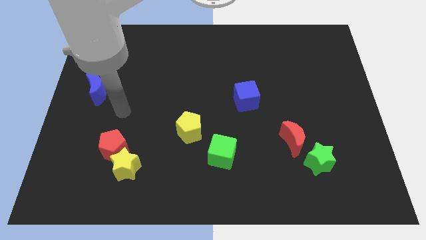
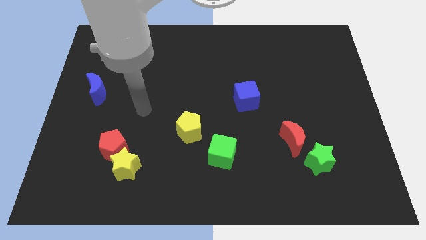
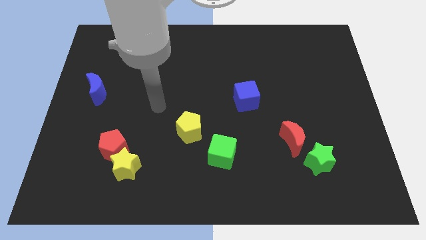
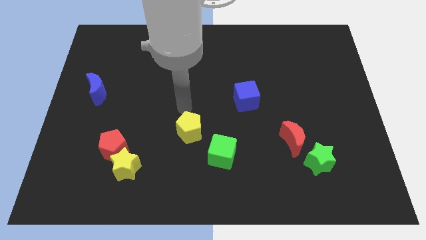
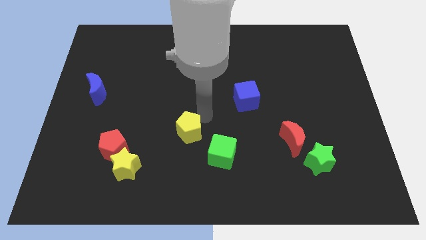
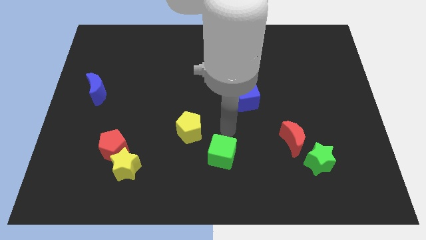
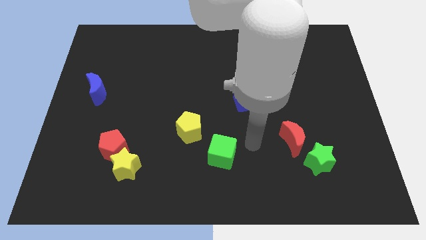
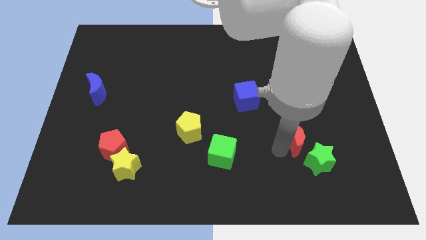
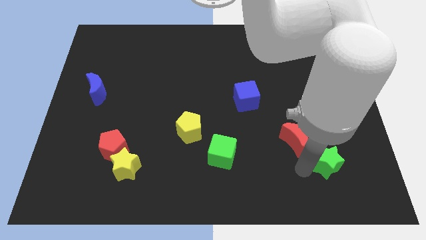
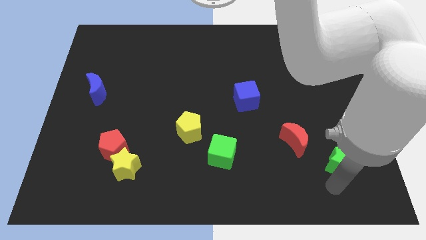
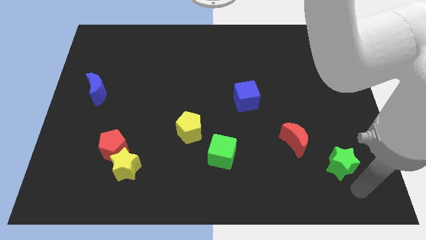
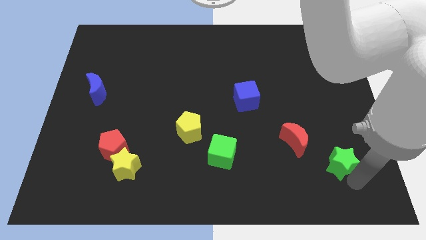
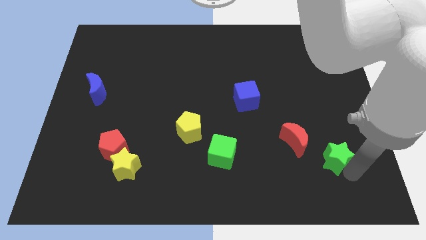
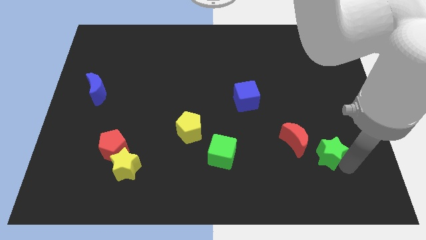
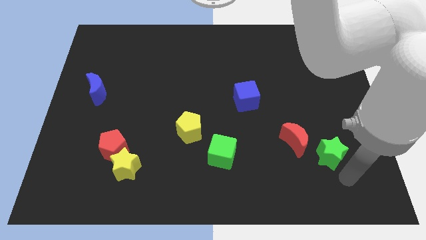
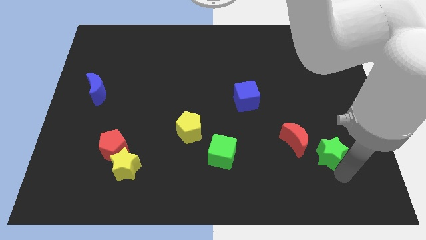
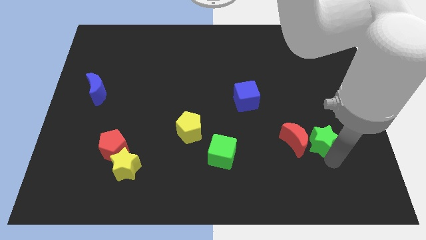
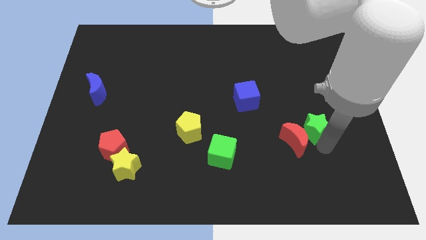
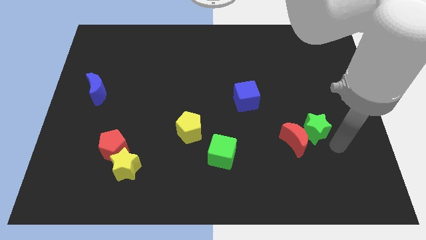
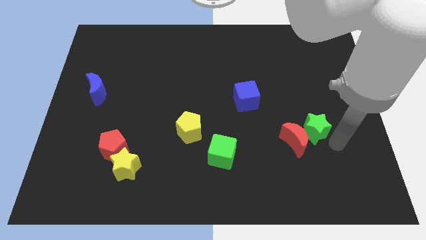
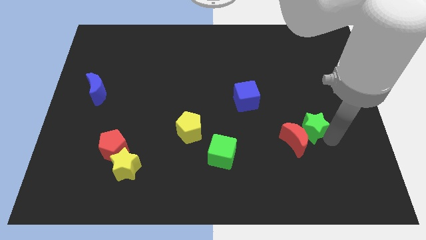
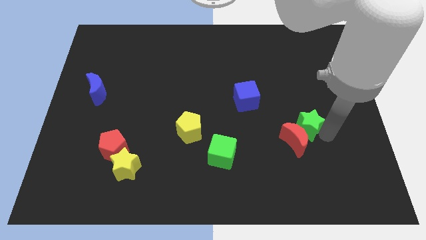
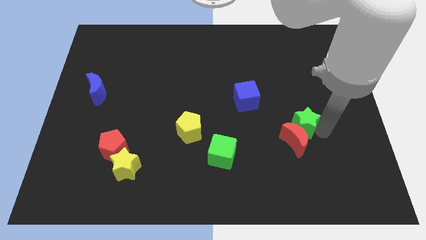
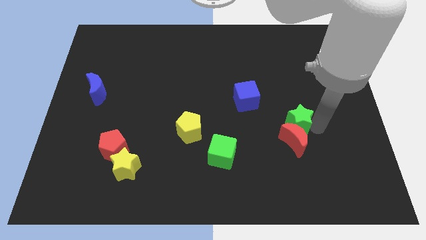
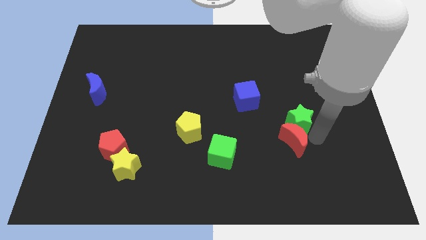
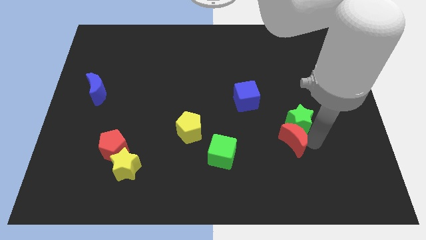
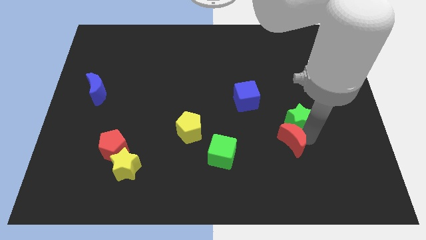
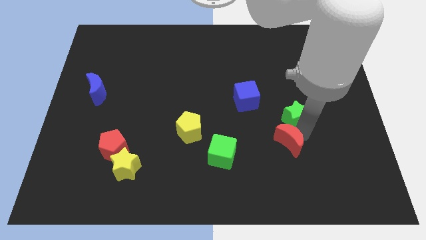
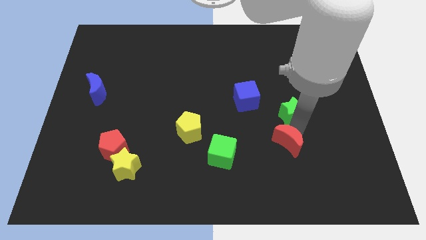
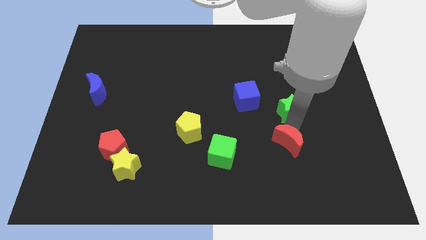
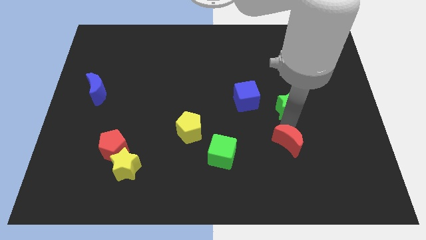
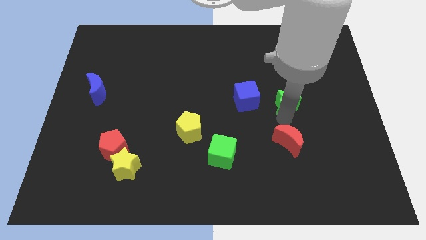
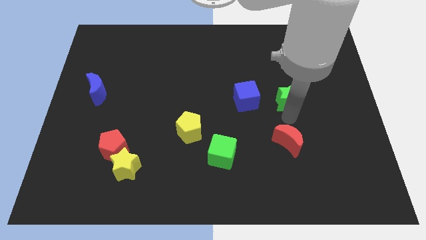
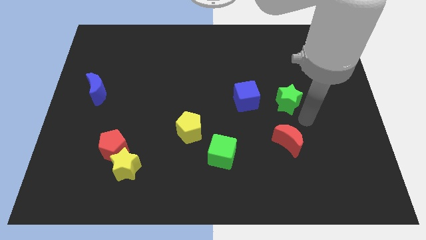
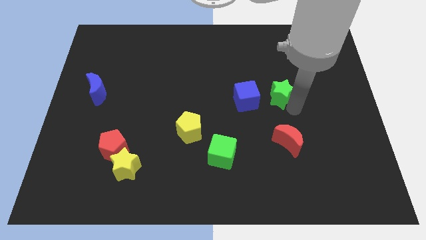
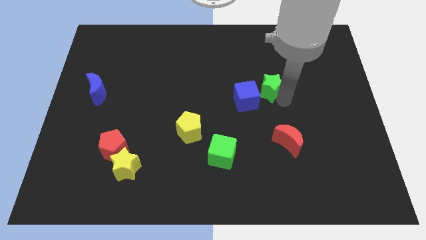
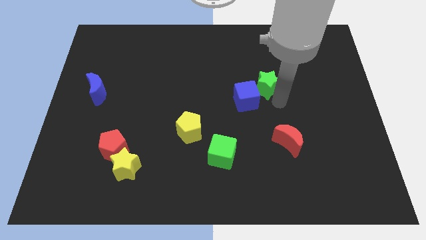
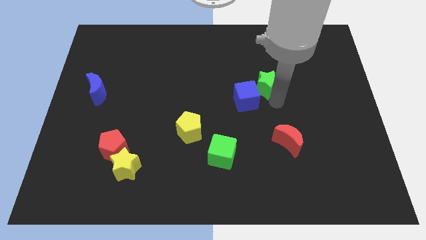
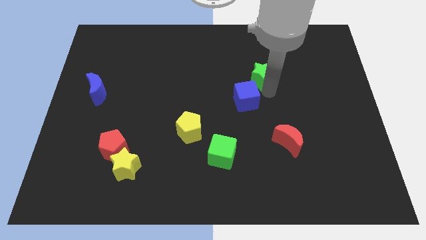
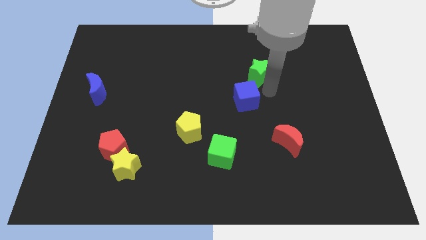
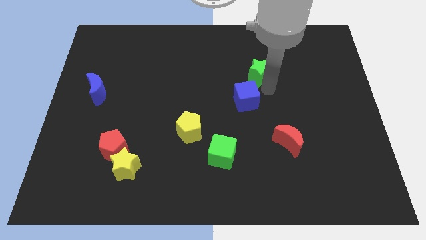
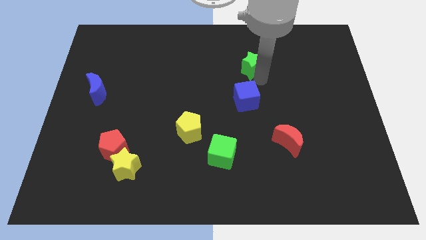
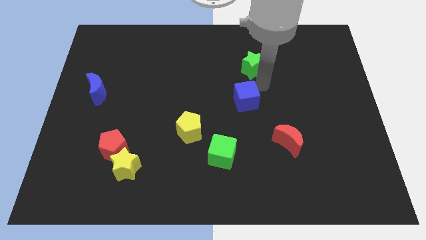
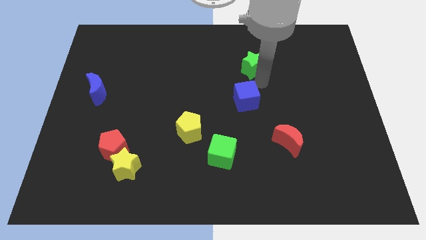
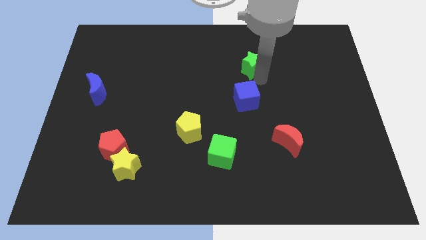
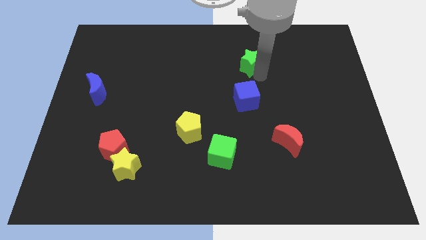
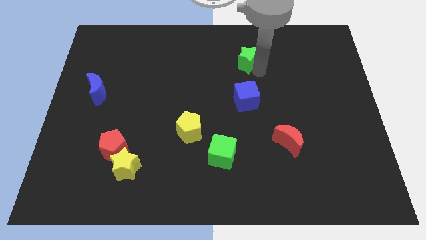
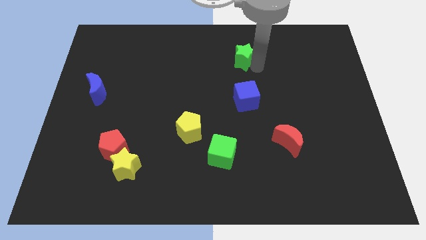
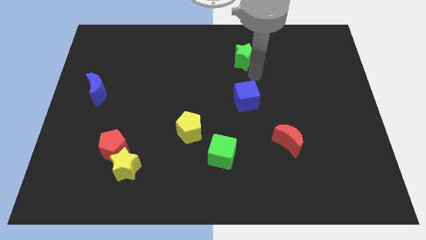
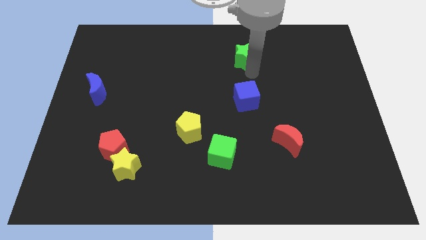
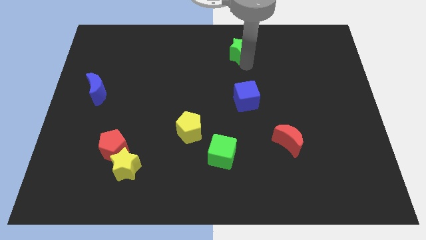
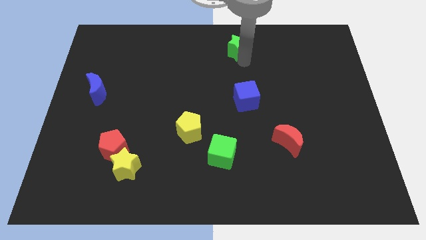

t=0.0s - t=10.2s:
move the green star to the top
